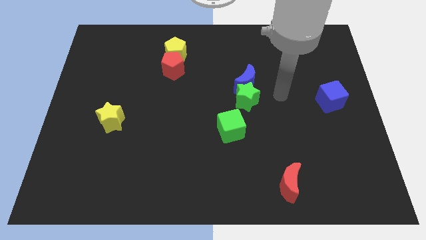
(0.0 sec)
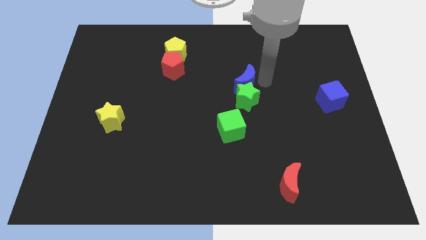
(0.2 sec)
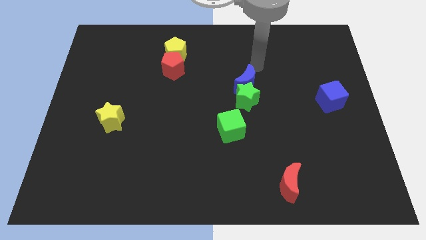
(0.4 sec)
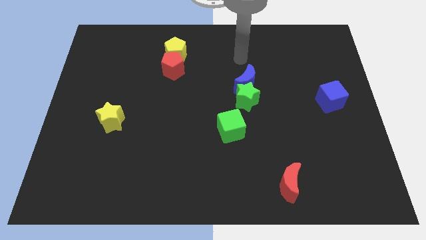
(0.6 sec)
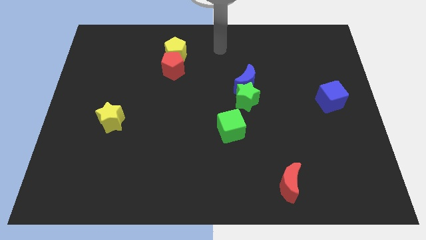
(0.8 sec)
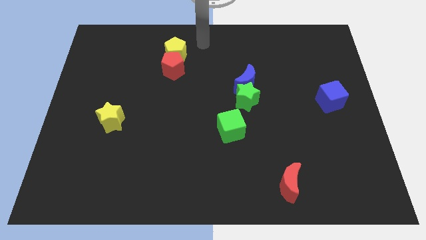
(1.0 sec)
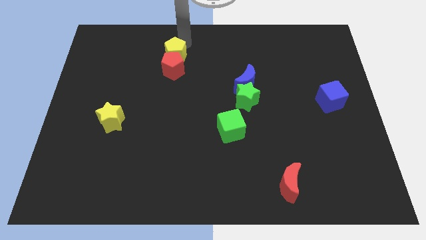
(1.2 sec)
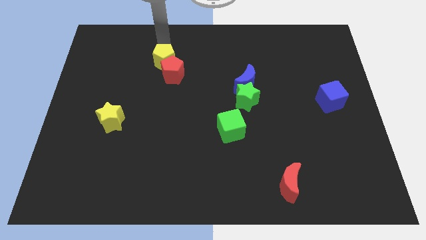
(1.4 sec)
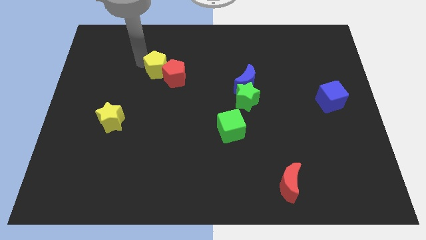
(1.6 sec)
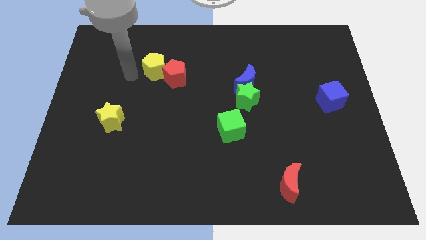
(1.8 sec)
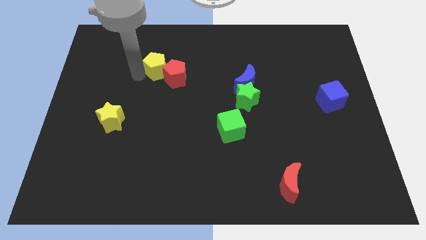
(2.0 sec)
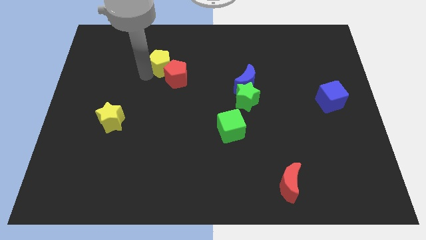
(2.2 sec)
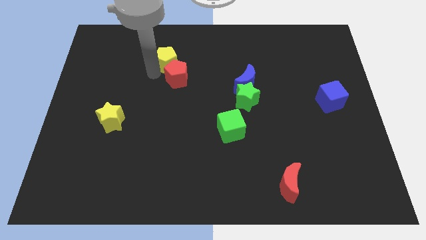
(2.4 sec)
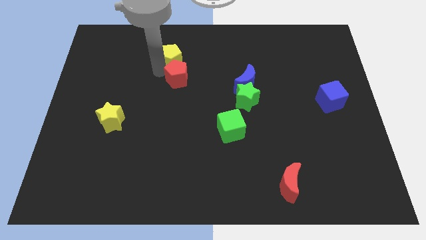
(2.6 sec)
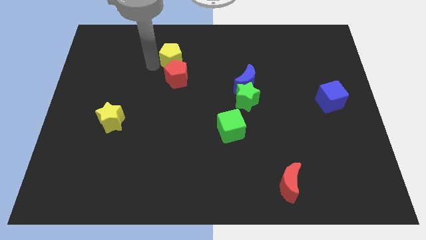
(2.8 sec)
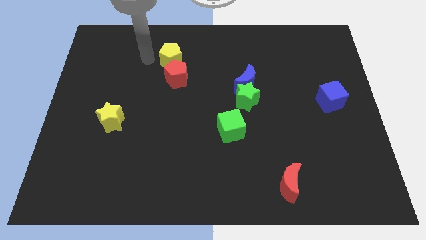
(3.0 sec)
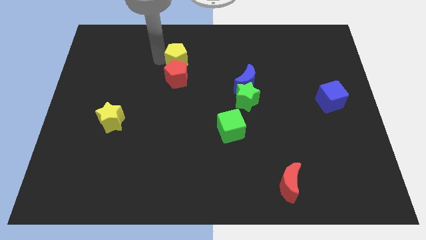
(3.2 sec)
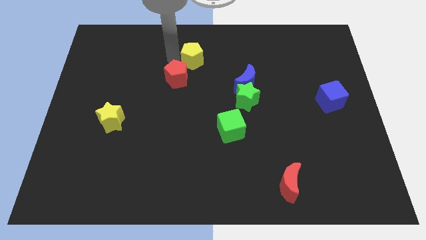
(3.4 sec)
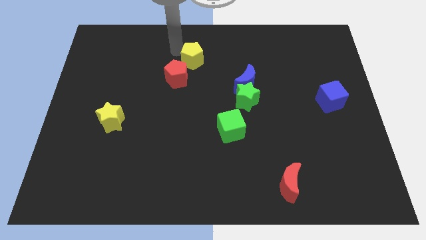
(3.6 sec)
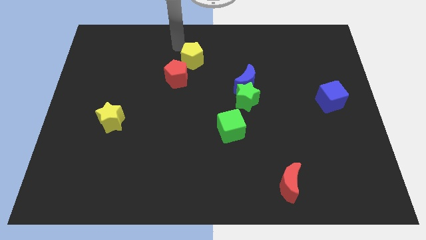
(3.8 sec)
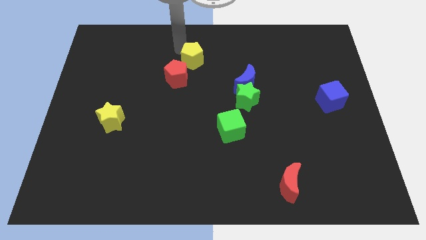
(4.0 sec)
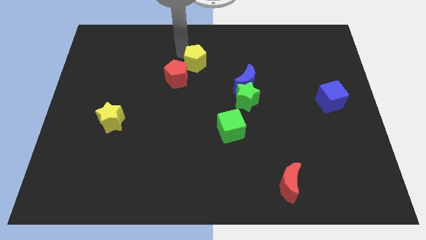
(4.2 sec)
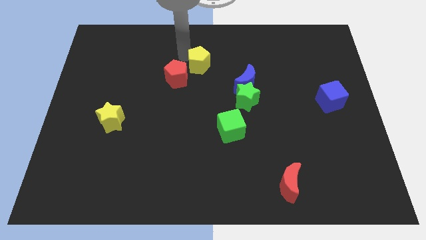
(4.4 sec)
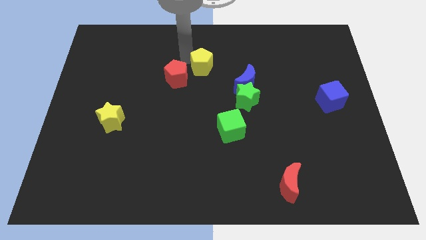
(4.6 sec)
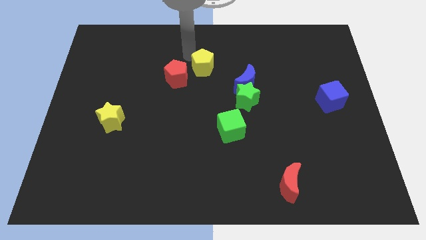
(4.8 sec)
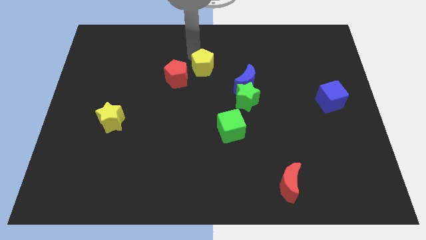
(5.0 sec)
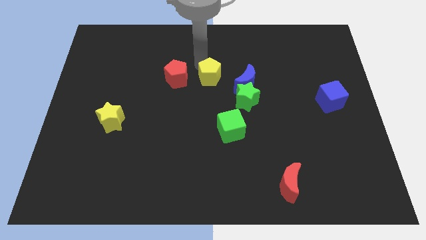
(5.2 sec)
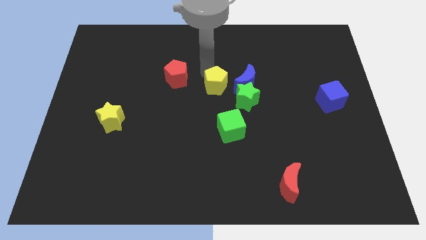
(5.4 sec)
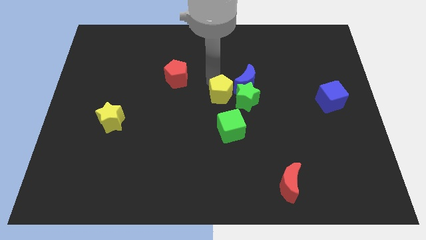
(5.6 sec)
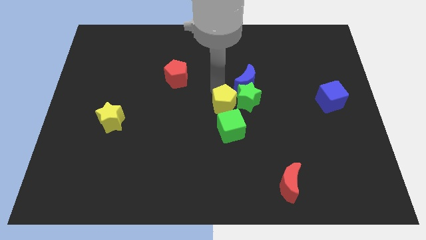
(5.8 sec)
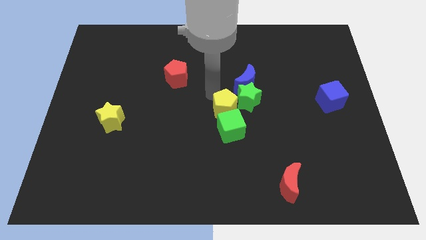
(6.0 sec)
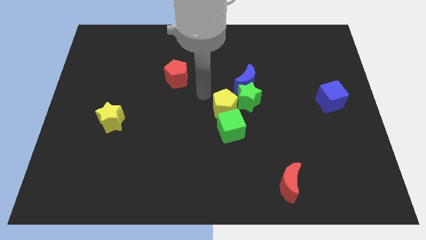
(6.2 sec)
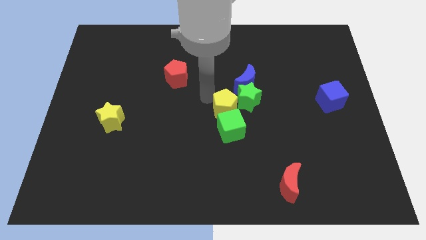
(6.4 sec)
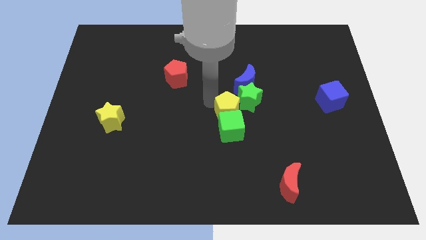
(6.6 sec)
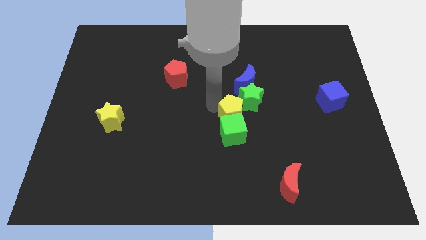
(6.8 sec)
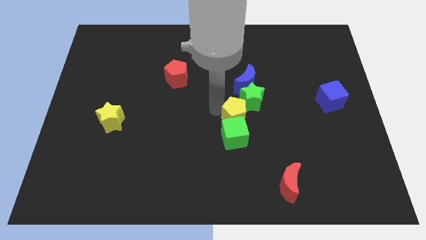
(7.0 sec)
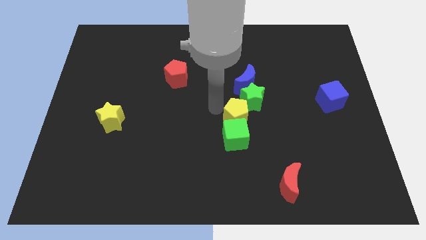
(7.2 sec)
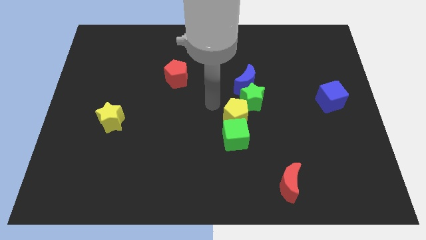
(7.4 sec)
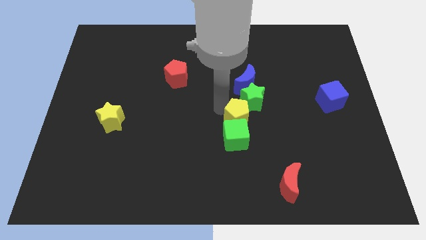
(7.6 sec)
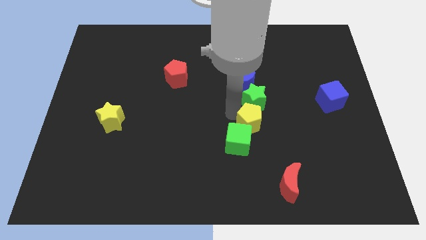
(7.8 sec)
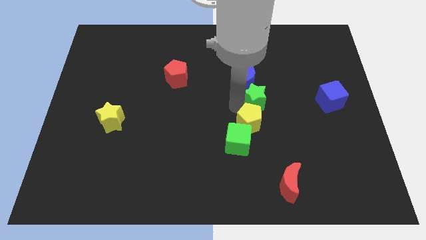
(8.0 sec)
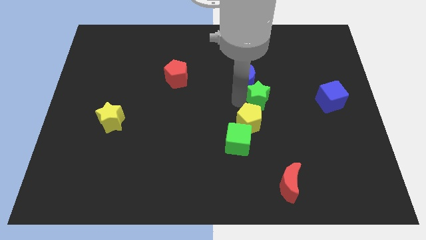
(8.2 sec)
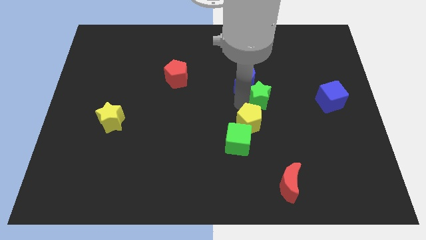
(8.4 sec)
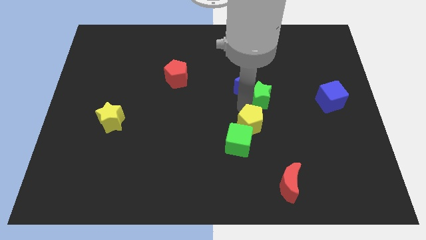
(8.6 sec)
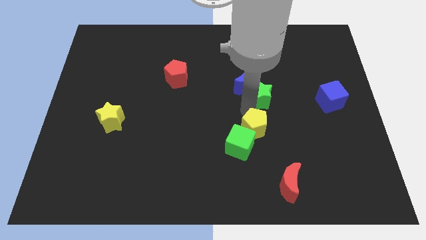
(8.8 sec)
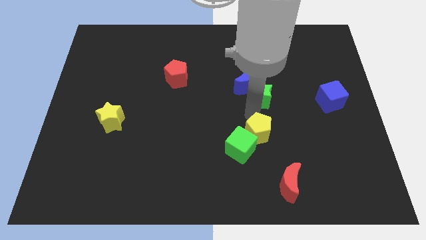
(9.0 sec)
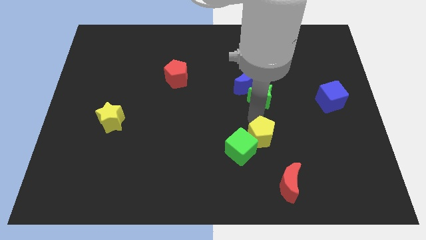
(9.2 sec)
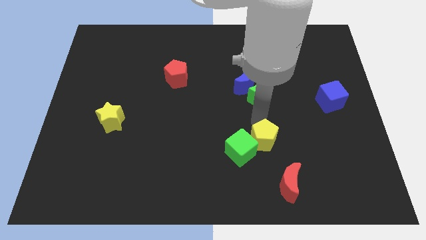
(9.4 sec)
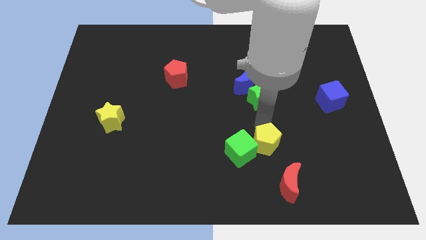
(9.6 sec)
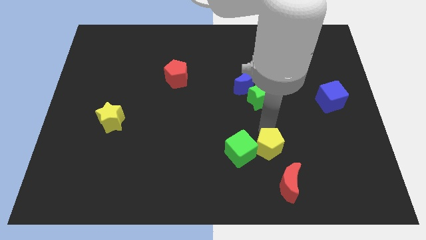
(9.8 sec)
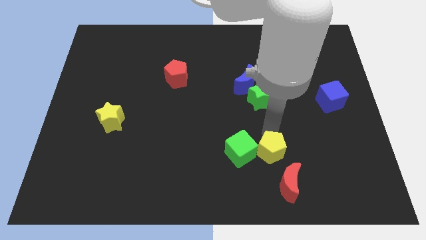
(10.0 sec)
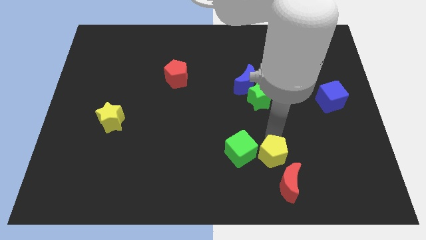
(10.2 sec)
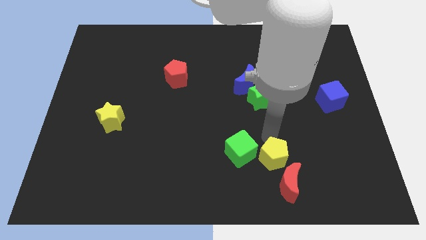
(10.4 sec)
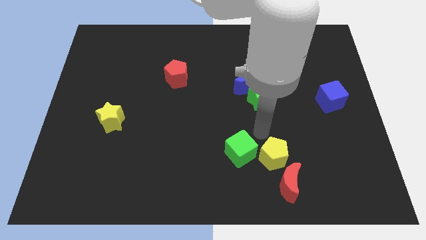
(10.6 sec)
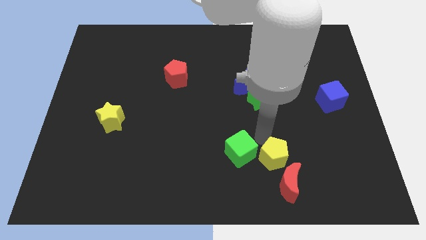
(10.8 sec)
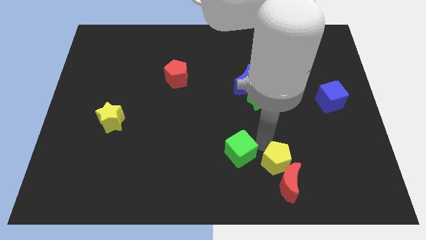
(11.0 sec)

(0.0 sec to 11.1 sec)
put the yellow pentagon next to the red moon

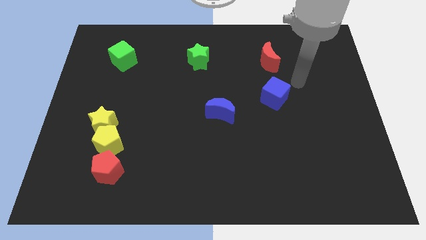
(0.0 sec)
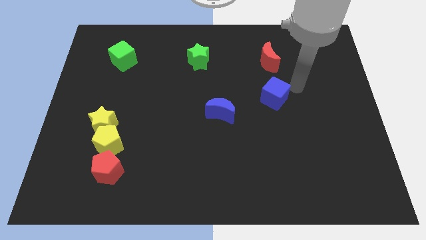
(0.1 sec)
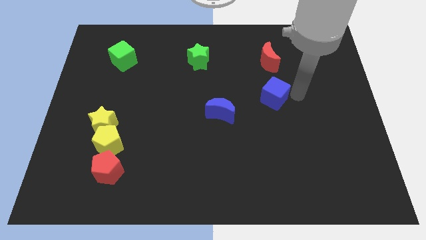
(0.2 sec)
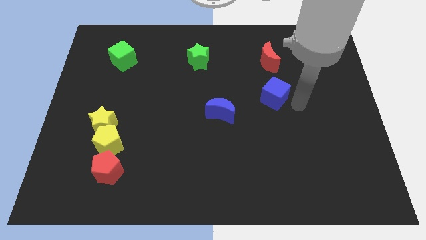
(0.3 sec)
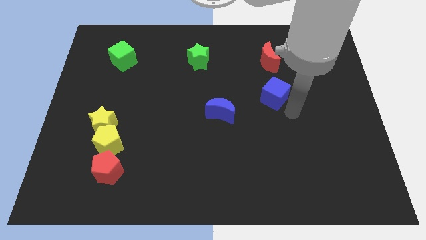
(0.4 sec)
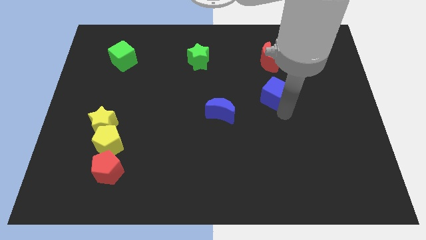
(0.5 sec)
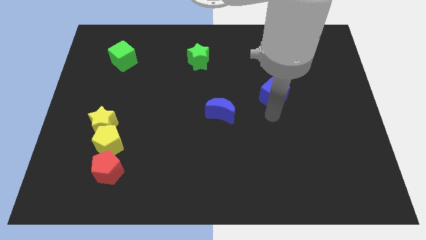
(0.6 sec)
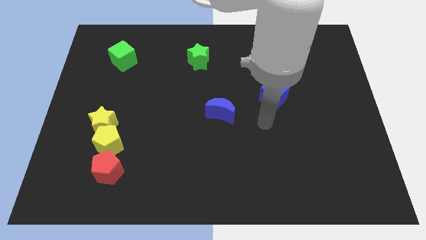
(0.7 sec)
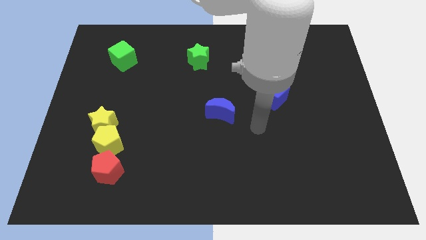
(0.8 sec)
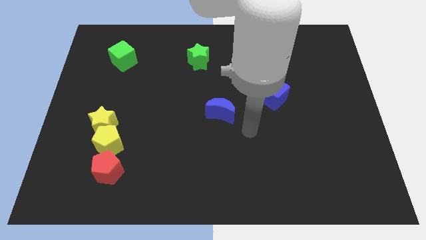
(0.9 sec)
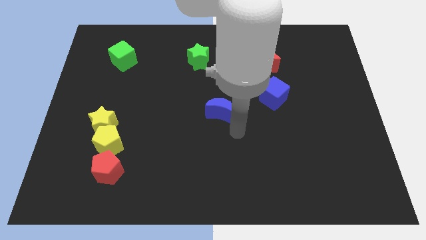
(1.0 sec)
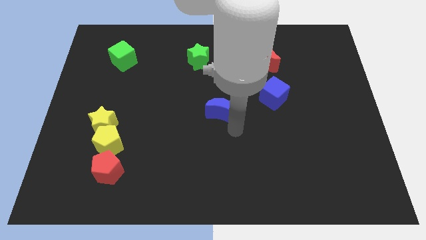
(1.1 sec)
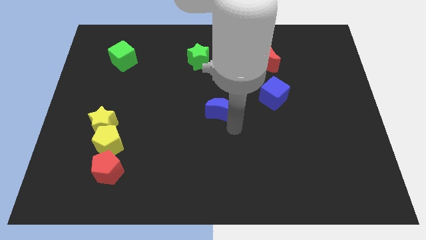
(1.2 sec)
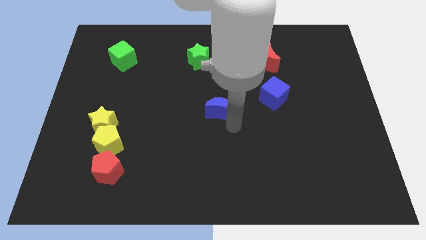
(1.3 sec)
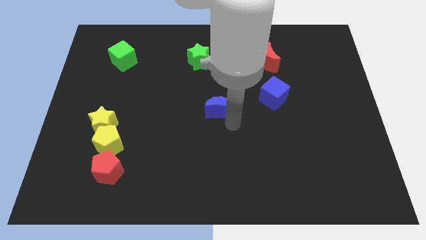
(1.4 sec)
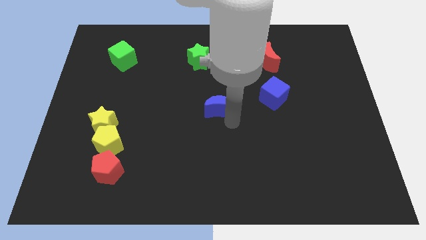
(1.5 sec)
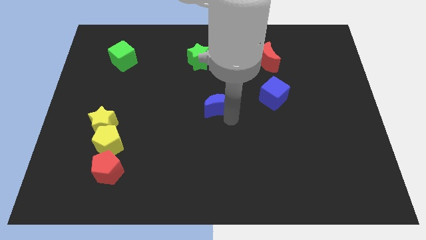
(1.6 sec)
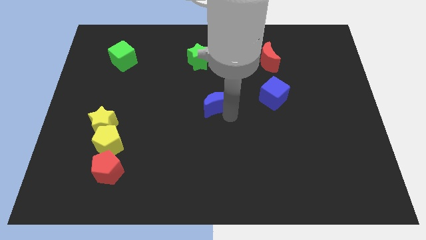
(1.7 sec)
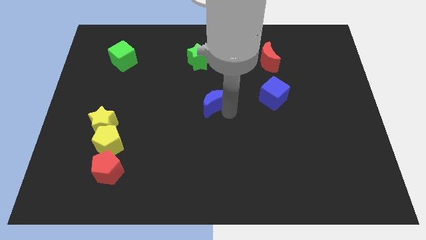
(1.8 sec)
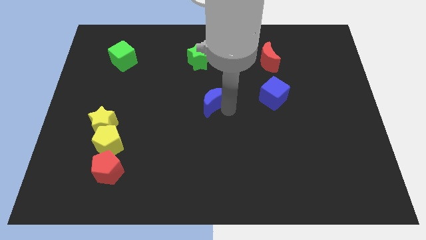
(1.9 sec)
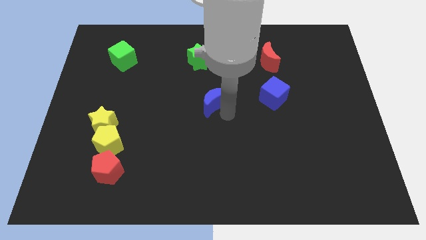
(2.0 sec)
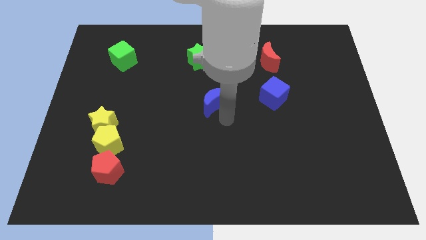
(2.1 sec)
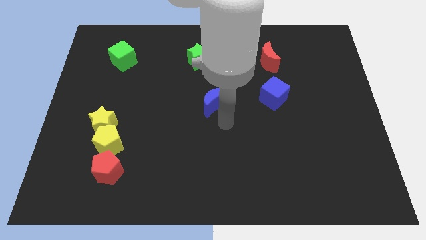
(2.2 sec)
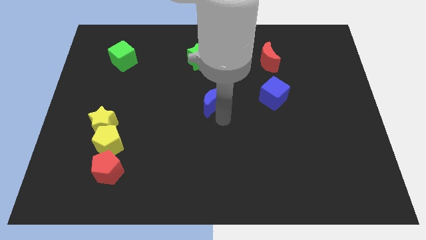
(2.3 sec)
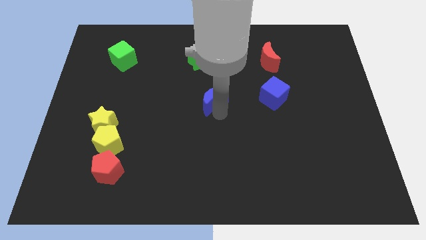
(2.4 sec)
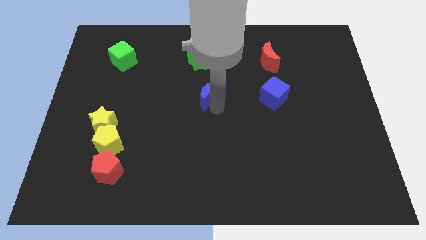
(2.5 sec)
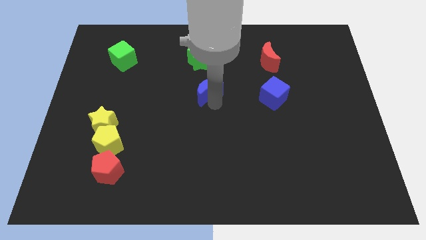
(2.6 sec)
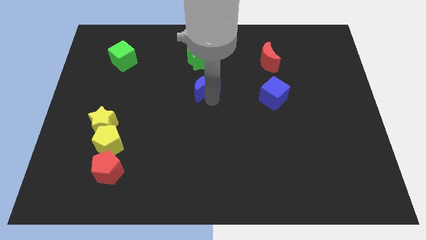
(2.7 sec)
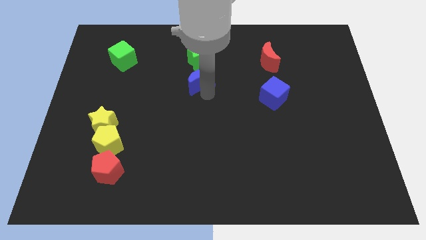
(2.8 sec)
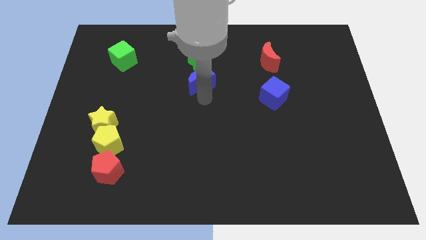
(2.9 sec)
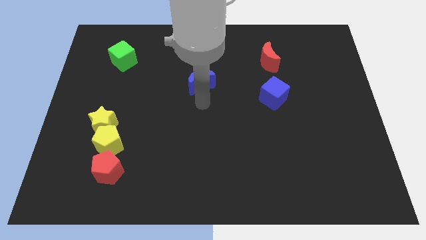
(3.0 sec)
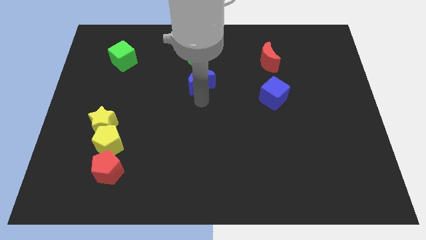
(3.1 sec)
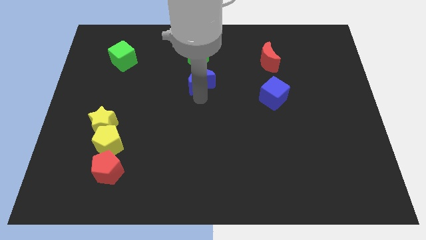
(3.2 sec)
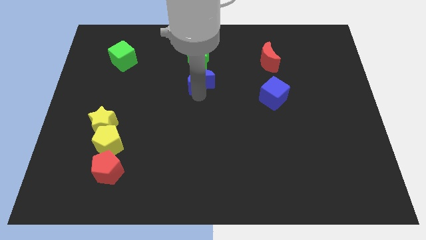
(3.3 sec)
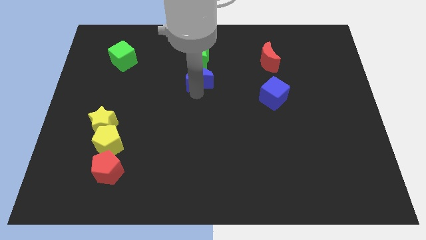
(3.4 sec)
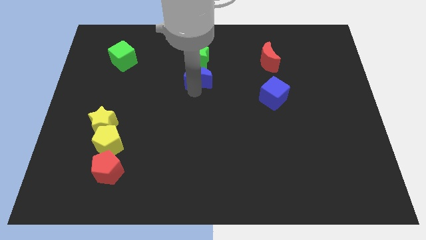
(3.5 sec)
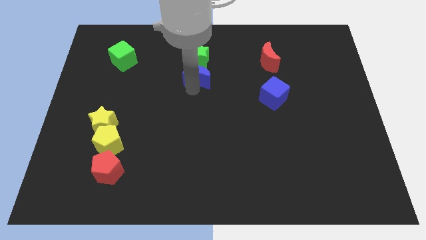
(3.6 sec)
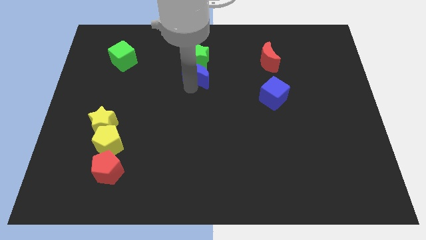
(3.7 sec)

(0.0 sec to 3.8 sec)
put the blue moon towards the green star
